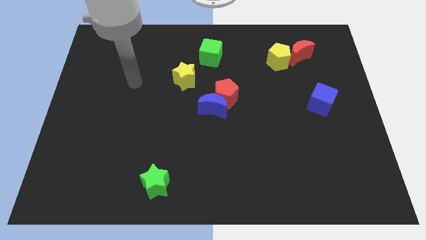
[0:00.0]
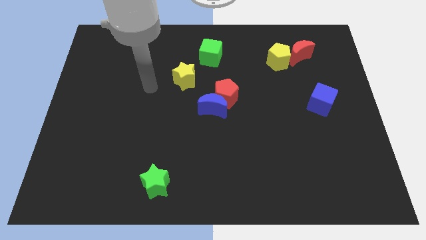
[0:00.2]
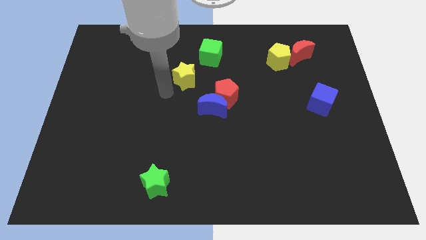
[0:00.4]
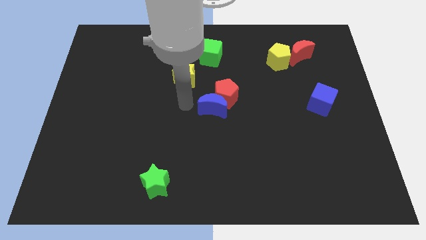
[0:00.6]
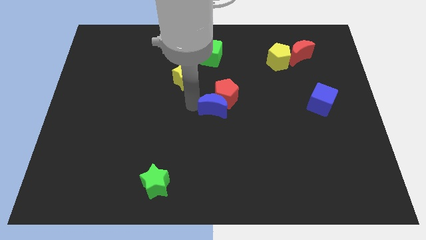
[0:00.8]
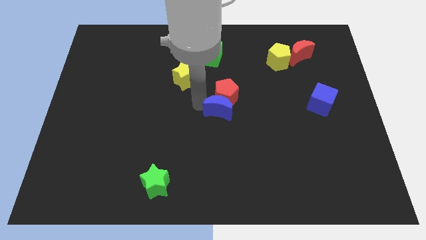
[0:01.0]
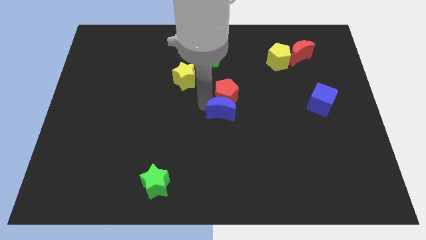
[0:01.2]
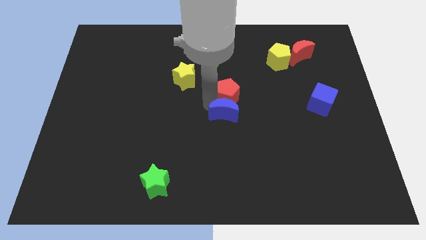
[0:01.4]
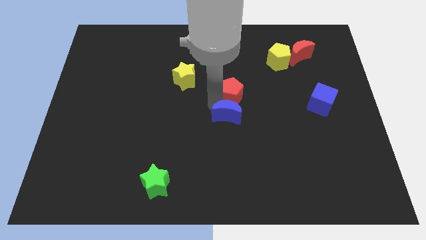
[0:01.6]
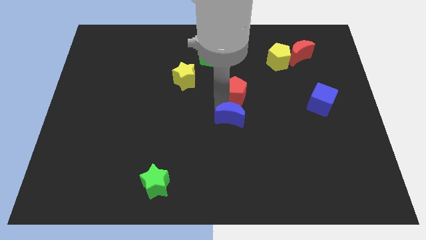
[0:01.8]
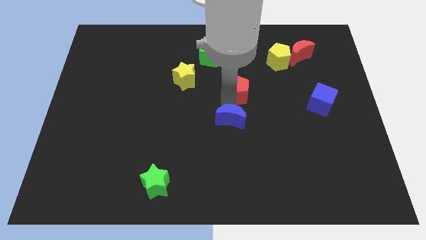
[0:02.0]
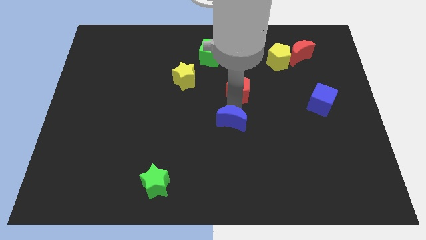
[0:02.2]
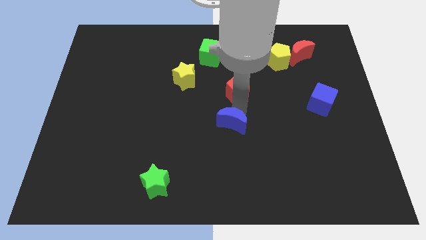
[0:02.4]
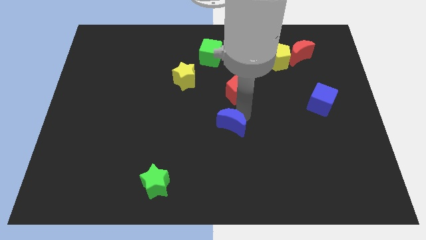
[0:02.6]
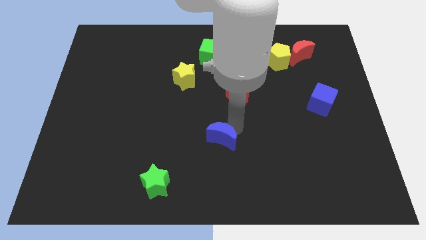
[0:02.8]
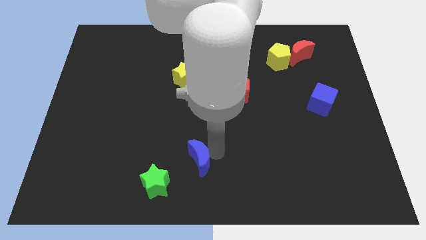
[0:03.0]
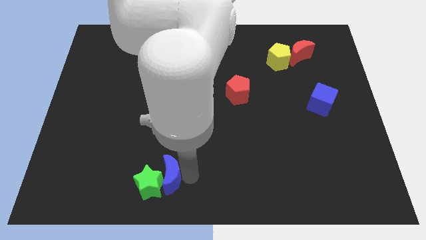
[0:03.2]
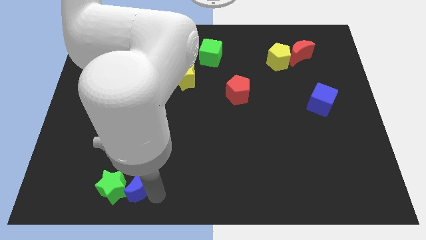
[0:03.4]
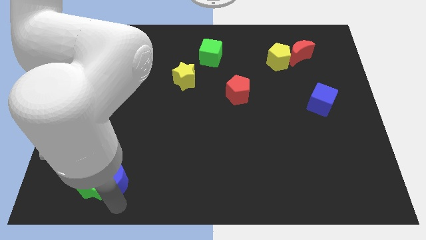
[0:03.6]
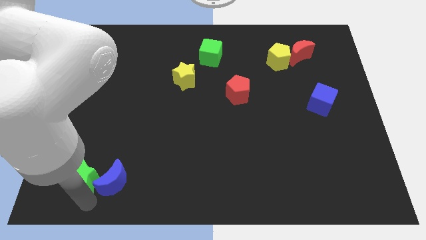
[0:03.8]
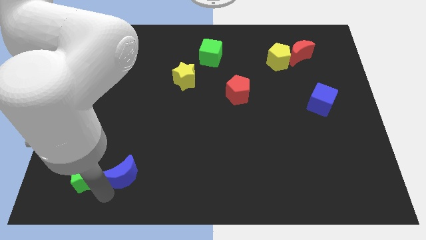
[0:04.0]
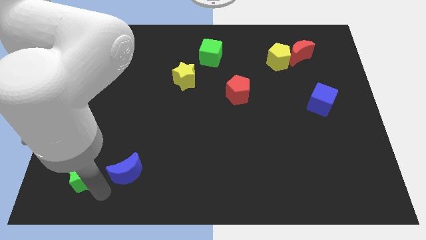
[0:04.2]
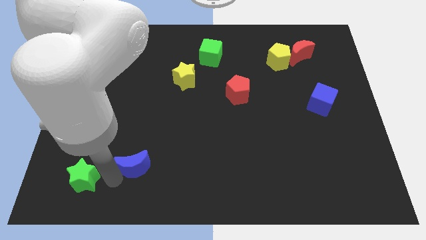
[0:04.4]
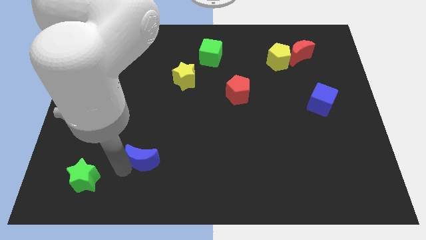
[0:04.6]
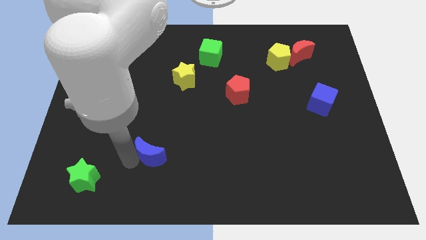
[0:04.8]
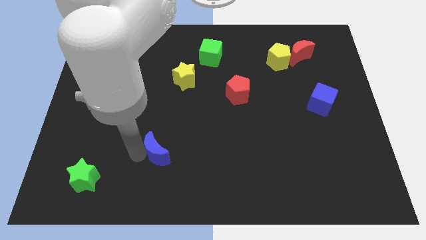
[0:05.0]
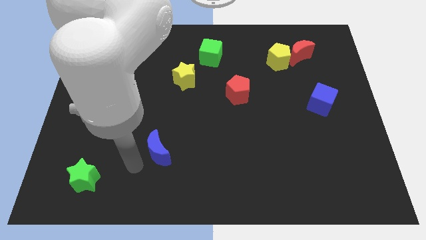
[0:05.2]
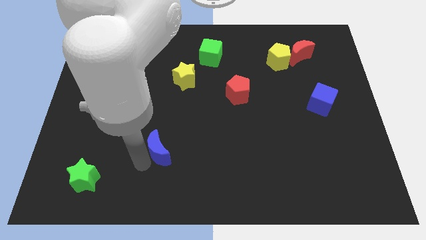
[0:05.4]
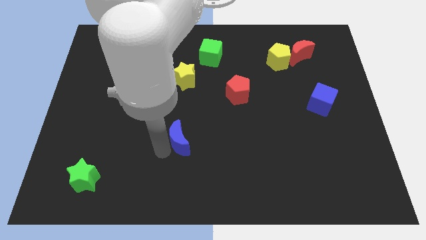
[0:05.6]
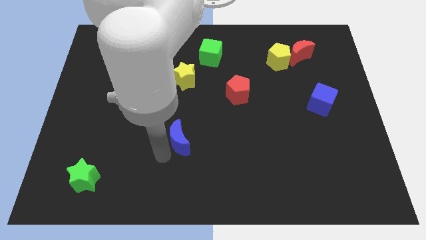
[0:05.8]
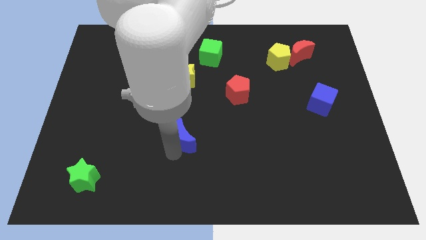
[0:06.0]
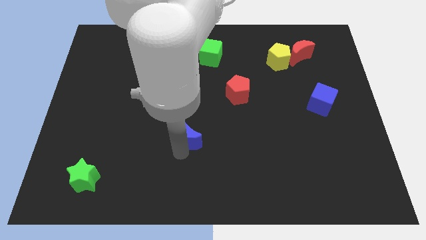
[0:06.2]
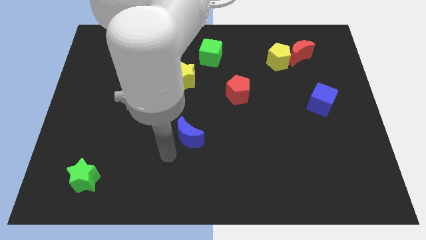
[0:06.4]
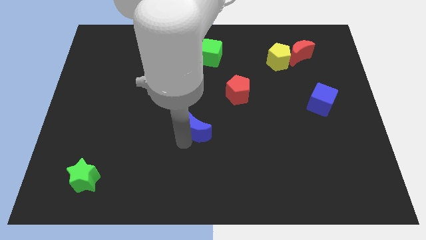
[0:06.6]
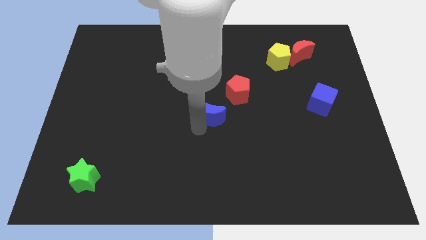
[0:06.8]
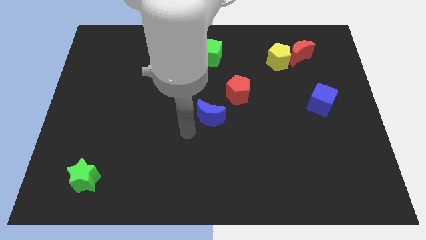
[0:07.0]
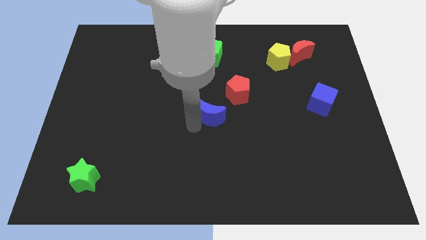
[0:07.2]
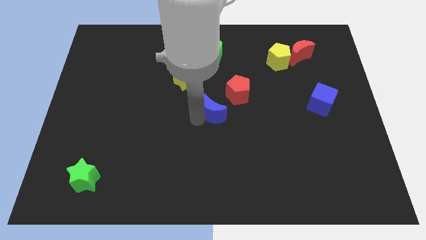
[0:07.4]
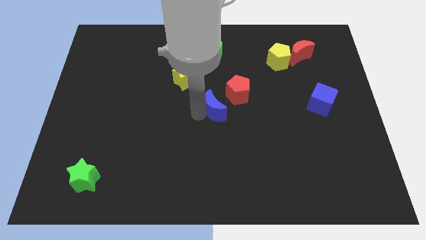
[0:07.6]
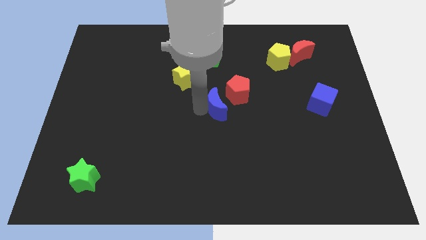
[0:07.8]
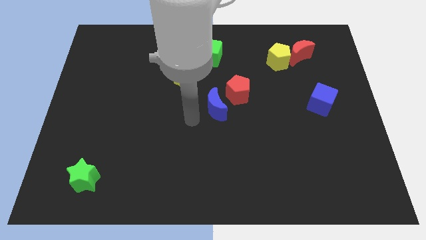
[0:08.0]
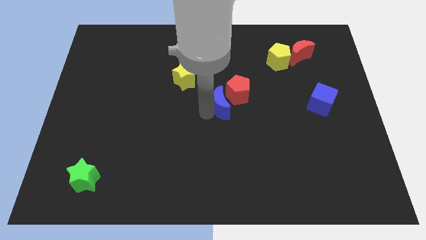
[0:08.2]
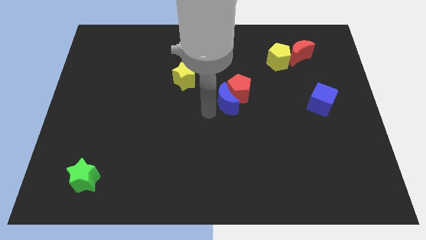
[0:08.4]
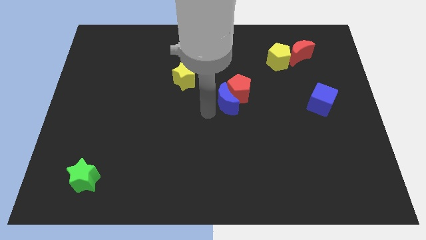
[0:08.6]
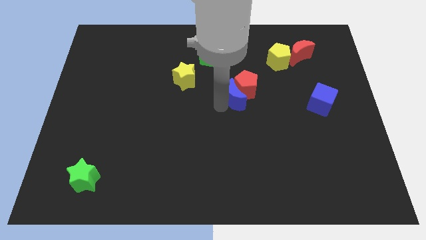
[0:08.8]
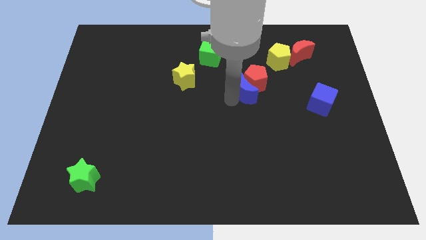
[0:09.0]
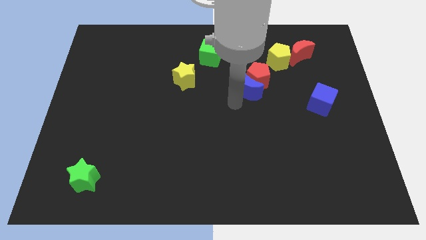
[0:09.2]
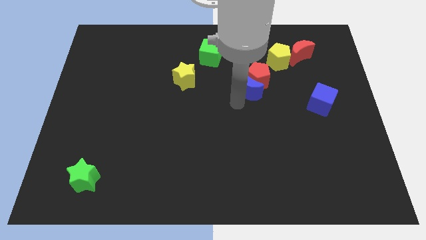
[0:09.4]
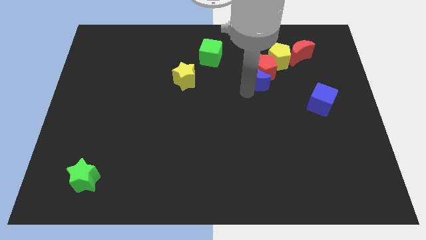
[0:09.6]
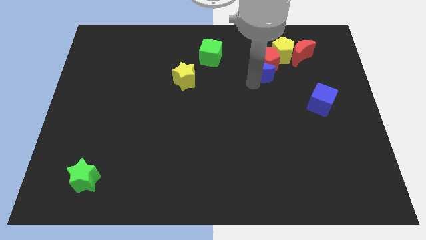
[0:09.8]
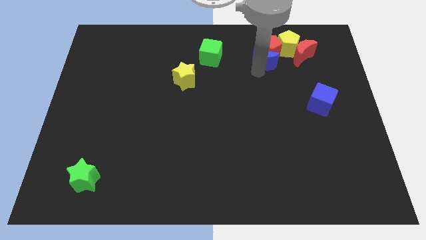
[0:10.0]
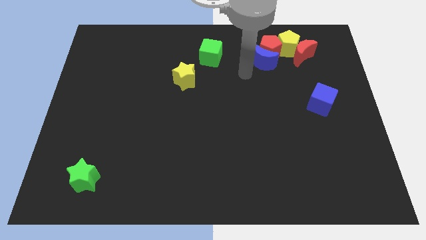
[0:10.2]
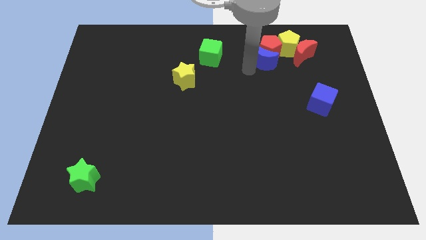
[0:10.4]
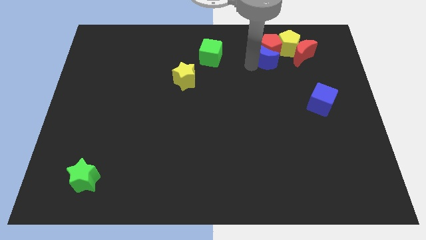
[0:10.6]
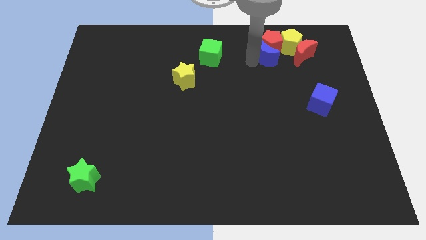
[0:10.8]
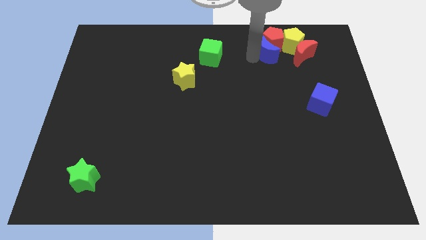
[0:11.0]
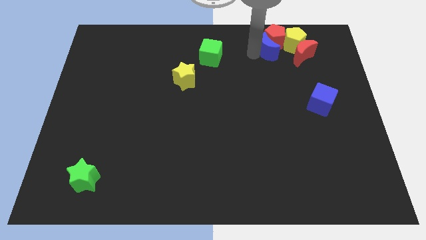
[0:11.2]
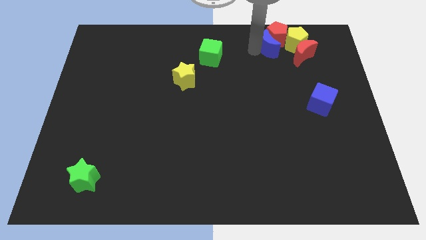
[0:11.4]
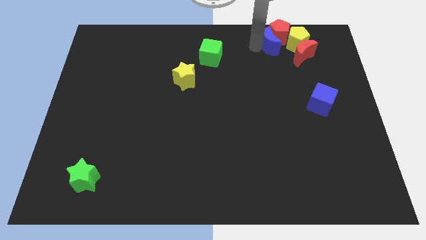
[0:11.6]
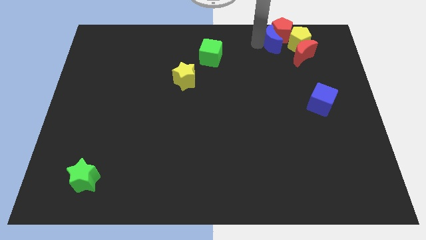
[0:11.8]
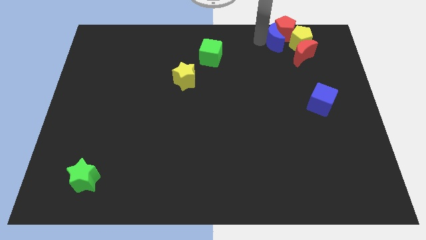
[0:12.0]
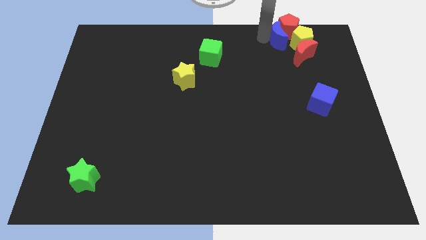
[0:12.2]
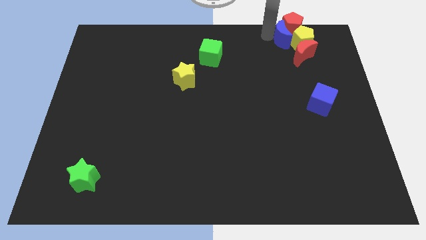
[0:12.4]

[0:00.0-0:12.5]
slide the blue moon next to the yellow pentagon

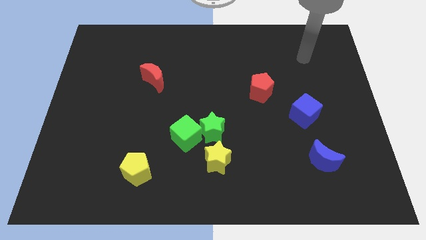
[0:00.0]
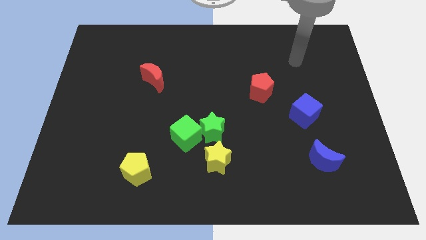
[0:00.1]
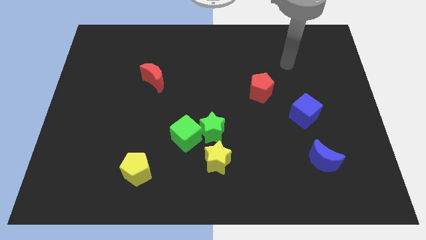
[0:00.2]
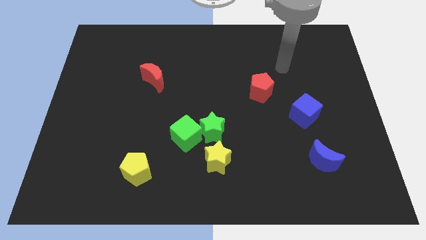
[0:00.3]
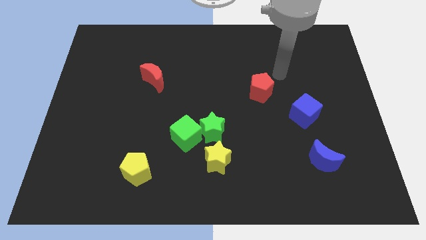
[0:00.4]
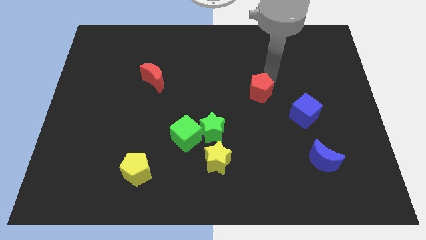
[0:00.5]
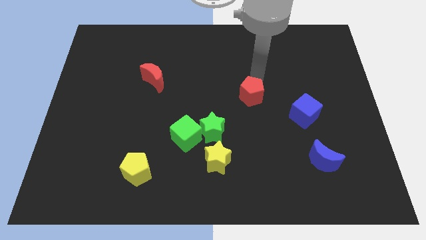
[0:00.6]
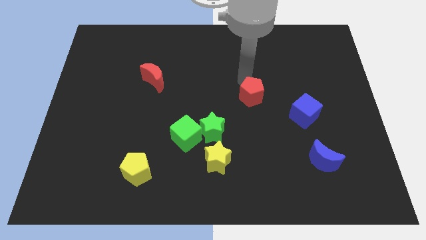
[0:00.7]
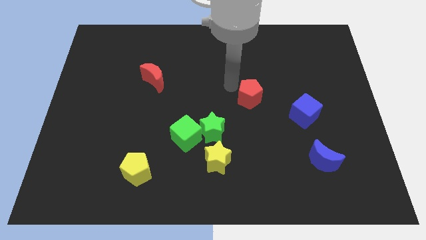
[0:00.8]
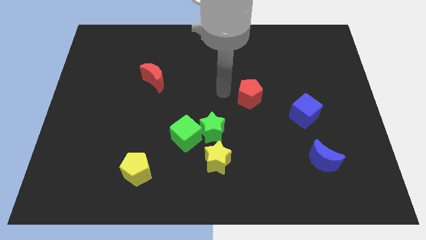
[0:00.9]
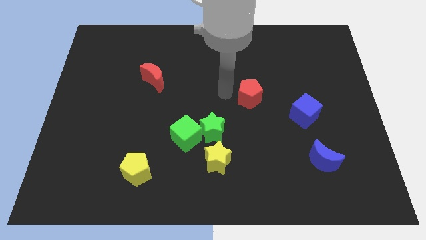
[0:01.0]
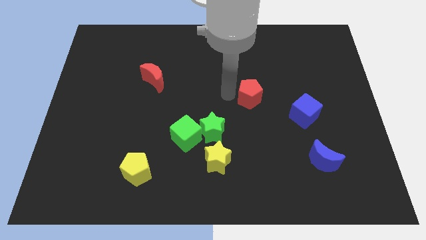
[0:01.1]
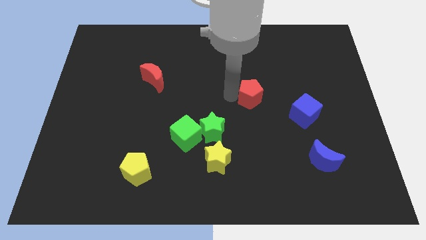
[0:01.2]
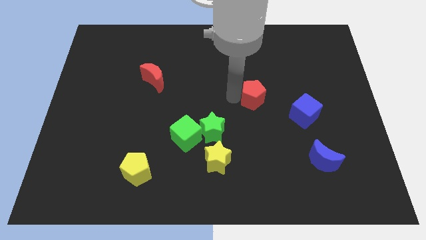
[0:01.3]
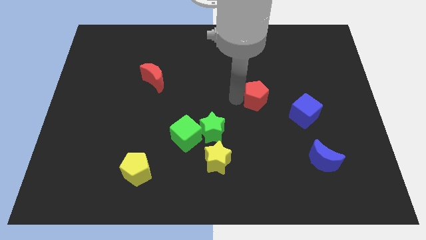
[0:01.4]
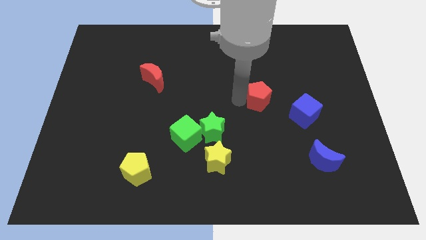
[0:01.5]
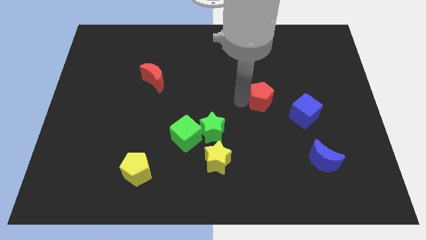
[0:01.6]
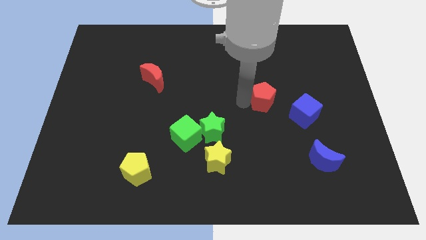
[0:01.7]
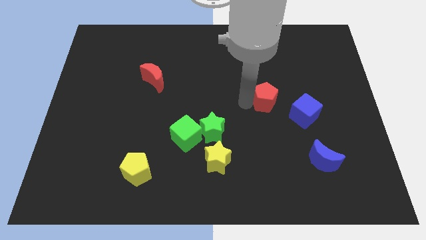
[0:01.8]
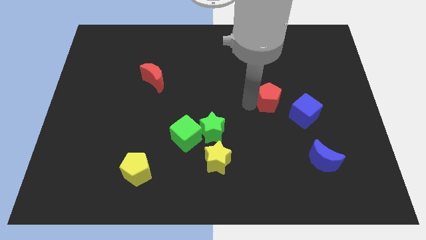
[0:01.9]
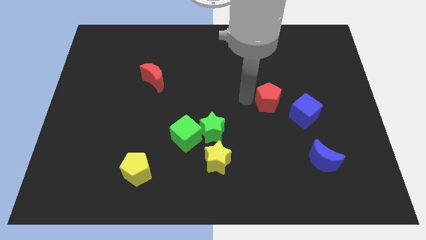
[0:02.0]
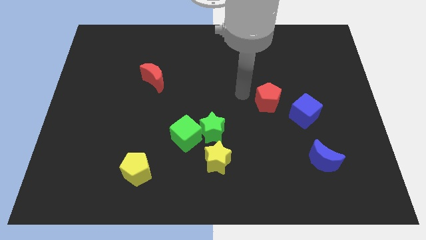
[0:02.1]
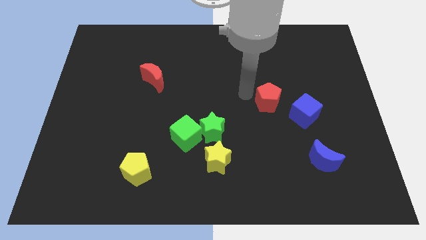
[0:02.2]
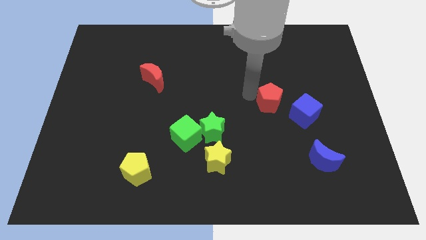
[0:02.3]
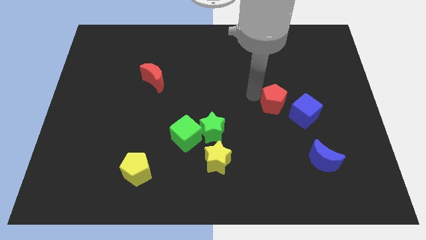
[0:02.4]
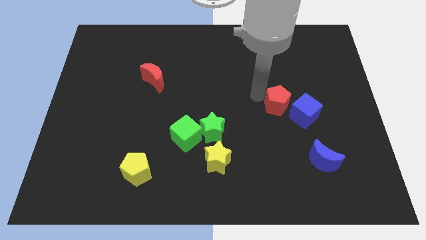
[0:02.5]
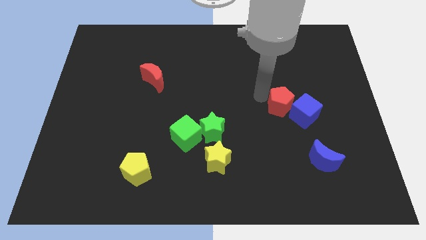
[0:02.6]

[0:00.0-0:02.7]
put the red pentagon towards the blue cube
